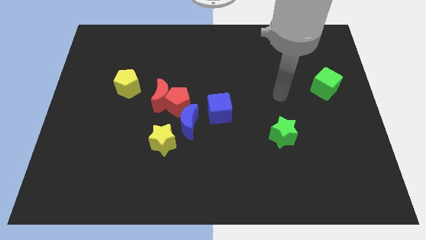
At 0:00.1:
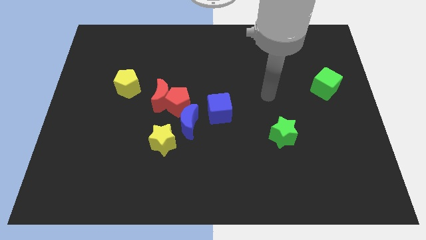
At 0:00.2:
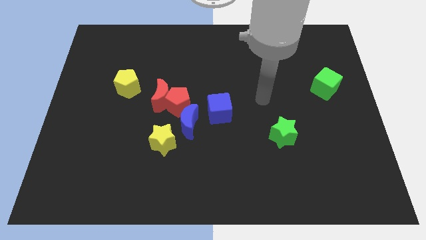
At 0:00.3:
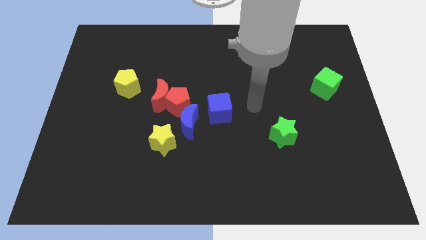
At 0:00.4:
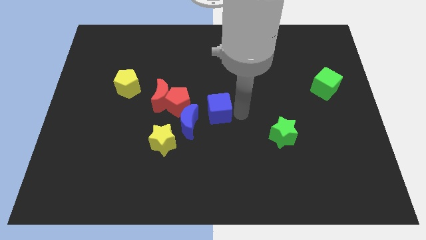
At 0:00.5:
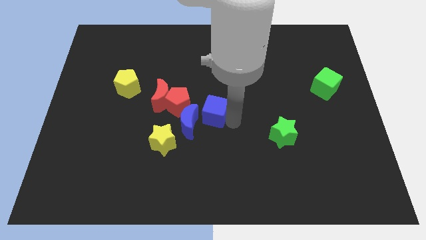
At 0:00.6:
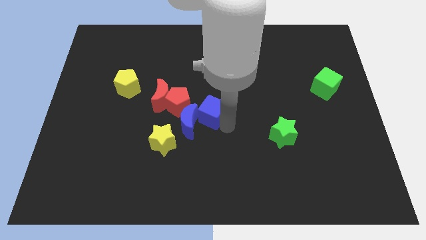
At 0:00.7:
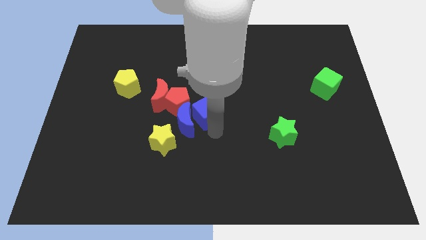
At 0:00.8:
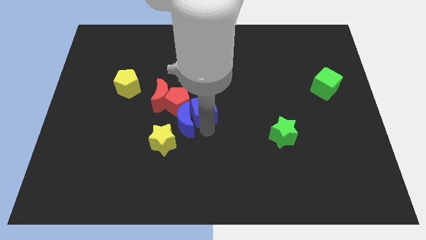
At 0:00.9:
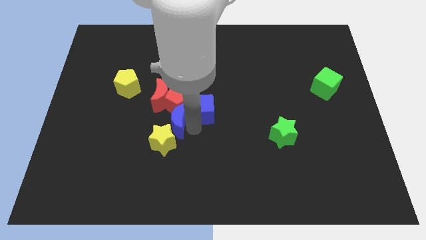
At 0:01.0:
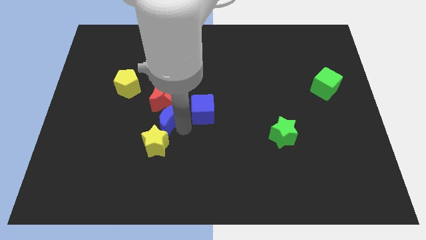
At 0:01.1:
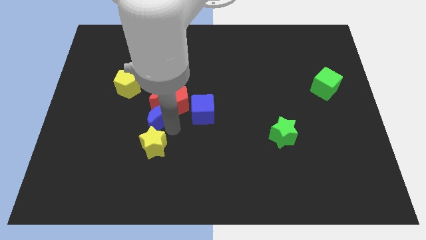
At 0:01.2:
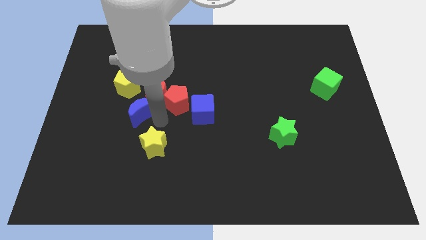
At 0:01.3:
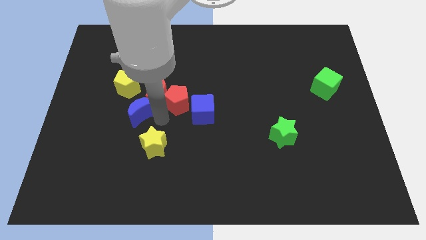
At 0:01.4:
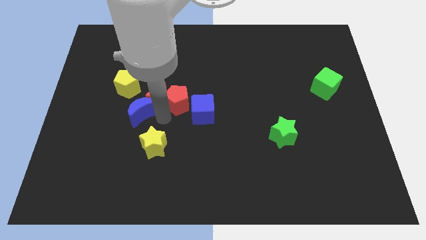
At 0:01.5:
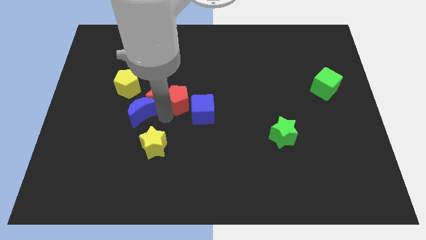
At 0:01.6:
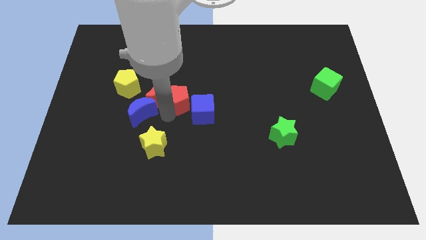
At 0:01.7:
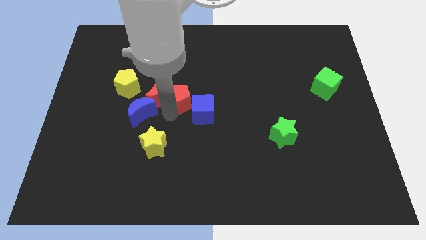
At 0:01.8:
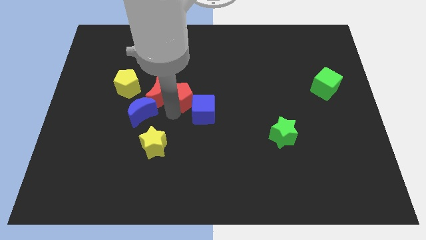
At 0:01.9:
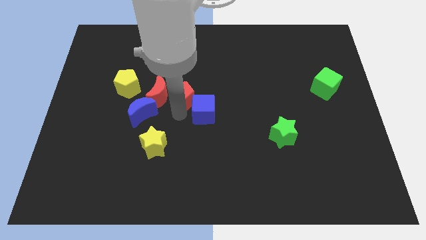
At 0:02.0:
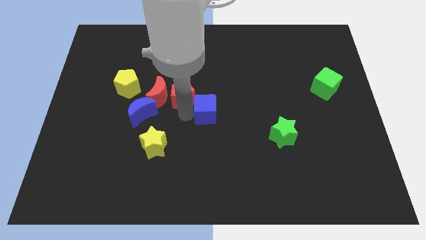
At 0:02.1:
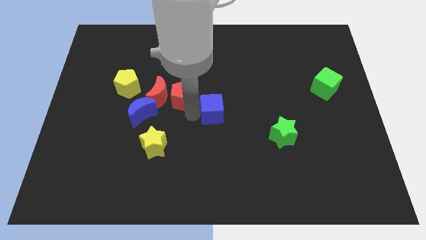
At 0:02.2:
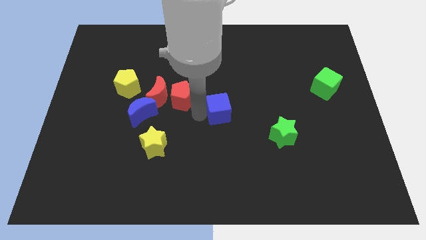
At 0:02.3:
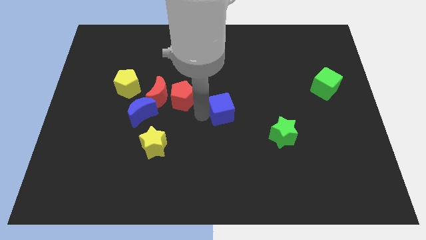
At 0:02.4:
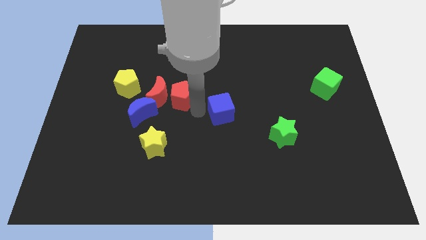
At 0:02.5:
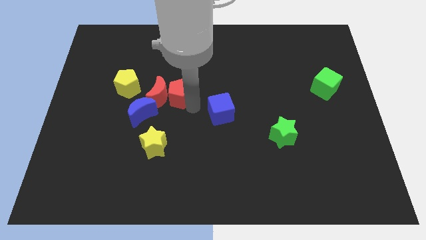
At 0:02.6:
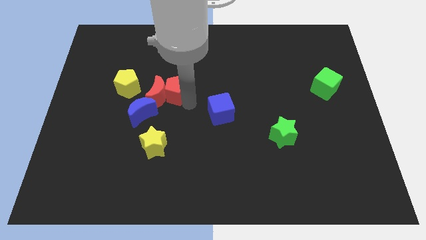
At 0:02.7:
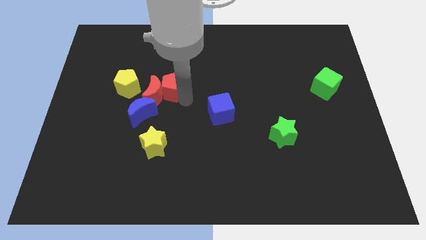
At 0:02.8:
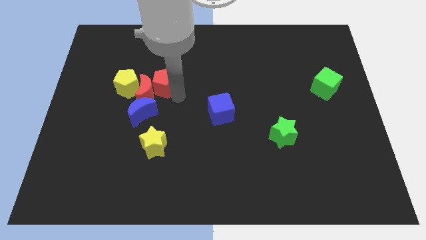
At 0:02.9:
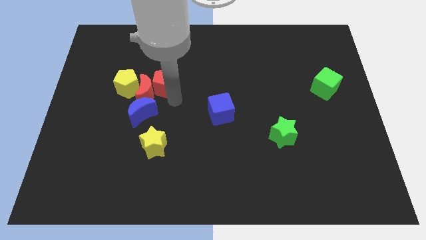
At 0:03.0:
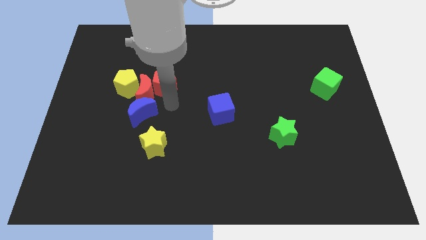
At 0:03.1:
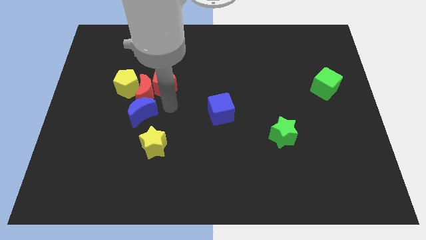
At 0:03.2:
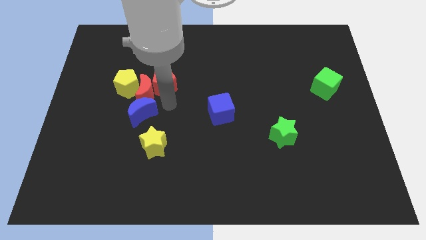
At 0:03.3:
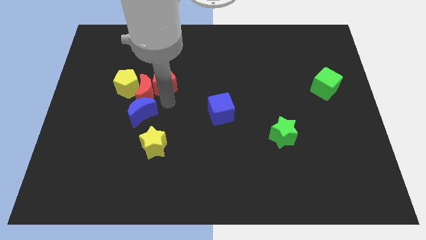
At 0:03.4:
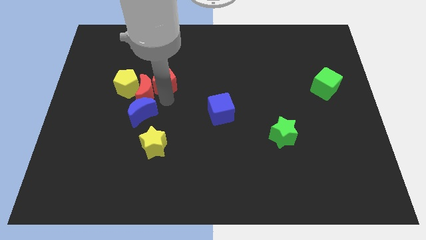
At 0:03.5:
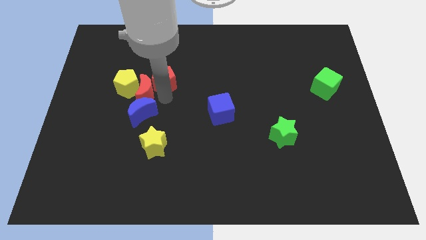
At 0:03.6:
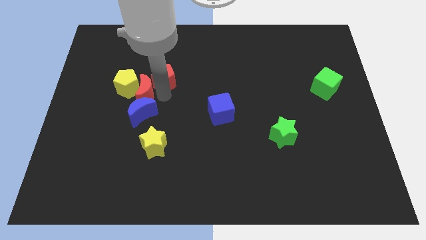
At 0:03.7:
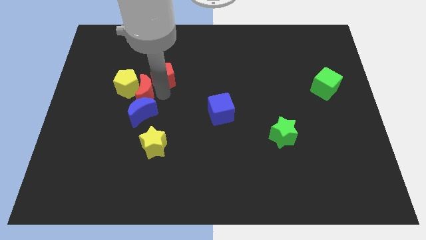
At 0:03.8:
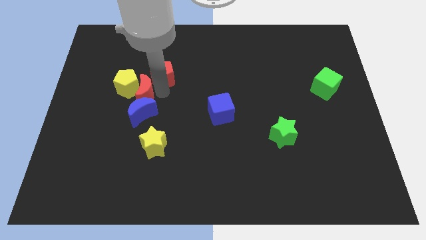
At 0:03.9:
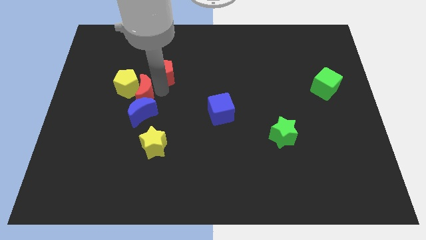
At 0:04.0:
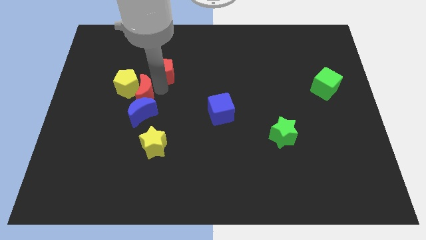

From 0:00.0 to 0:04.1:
move the red pentagon away from the red moon, blue moon, and blue cube

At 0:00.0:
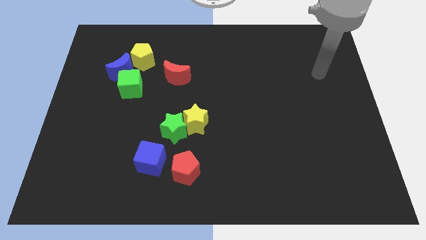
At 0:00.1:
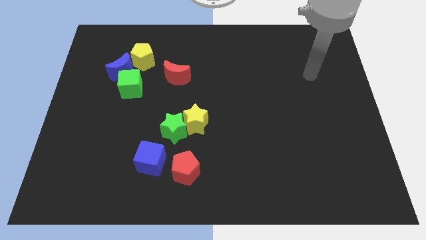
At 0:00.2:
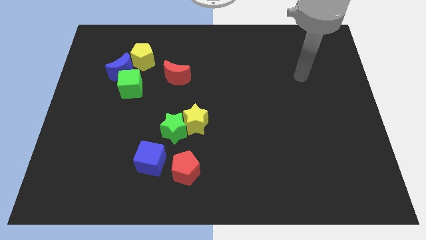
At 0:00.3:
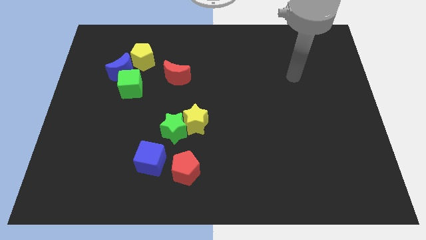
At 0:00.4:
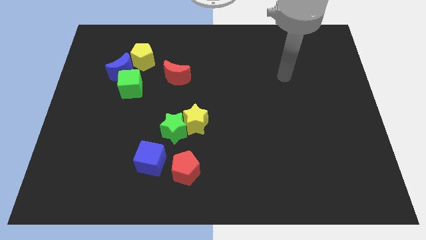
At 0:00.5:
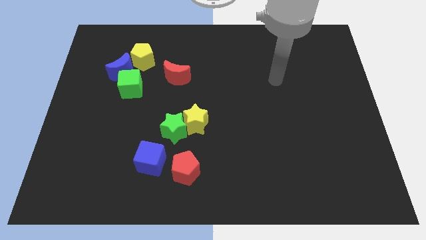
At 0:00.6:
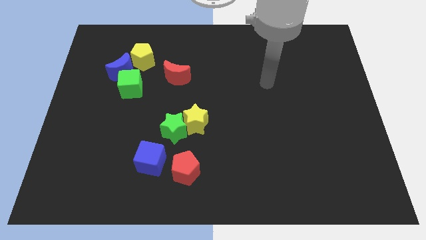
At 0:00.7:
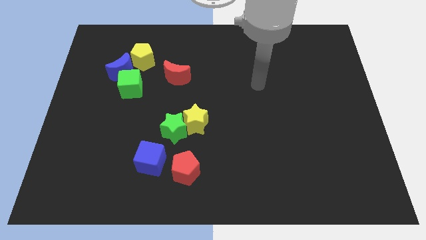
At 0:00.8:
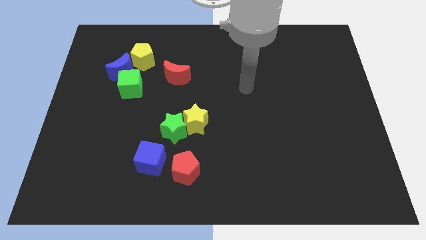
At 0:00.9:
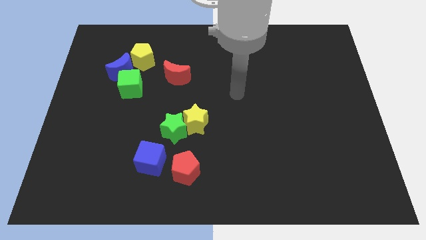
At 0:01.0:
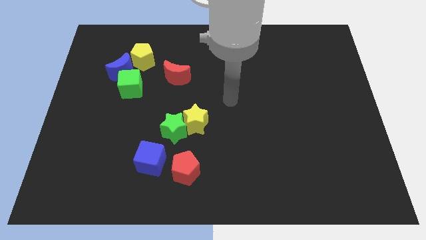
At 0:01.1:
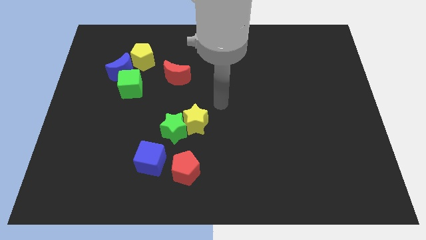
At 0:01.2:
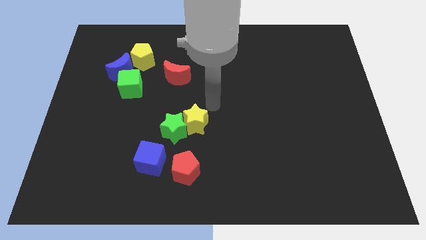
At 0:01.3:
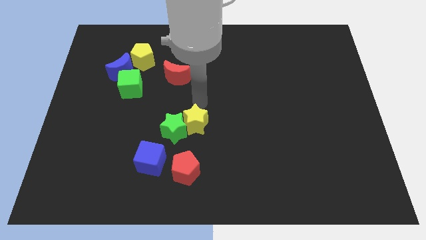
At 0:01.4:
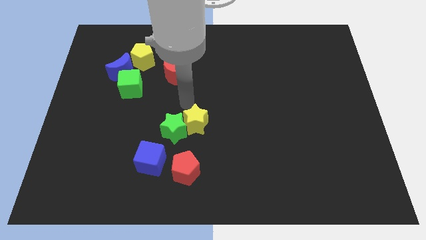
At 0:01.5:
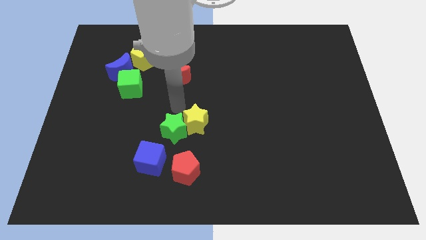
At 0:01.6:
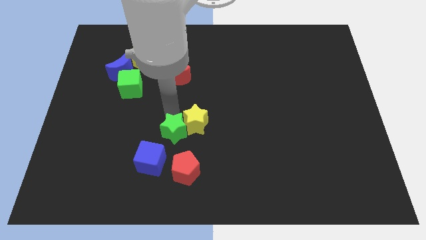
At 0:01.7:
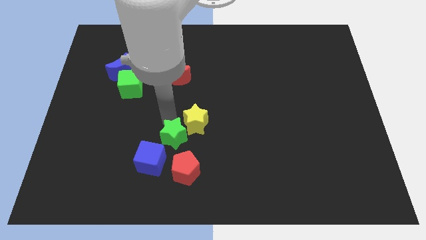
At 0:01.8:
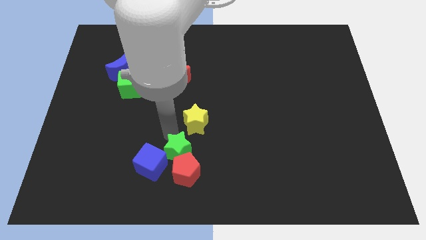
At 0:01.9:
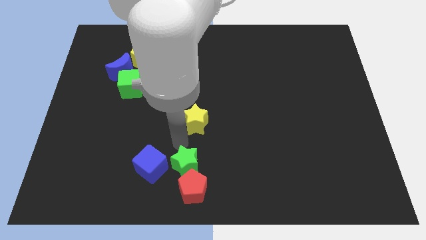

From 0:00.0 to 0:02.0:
move the yellow star away from the green star

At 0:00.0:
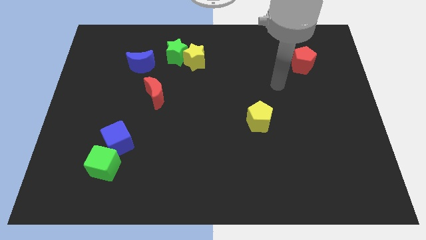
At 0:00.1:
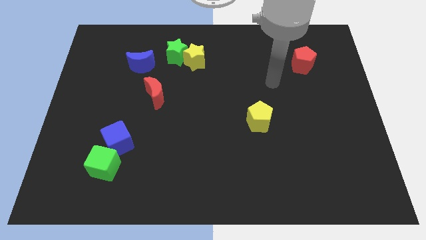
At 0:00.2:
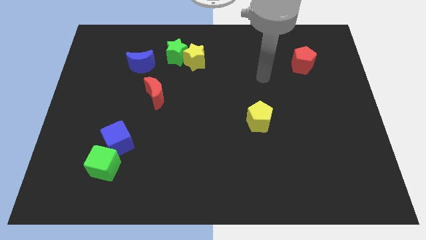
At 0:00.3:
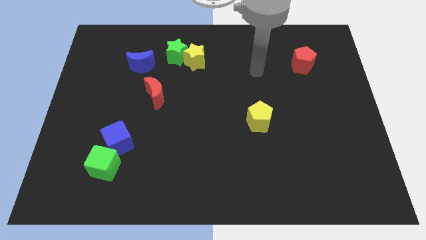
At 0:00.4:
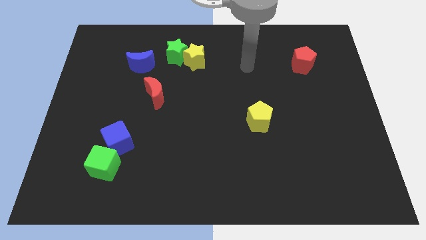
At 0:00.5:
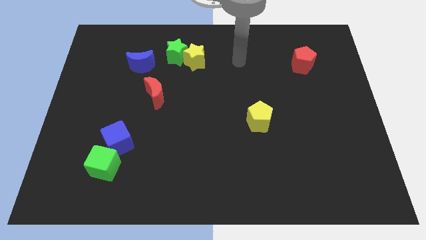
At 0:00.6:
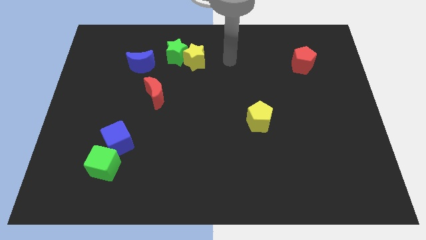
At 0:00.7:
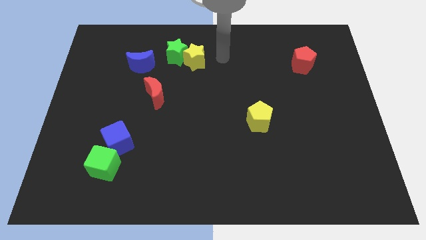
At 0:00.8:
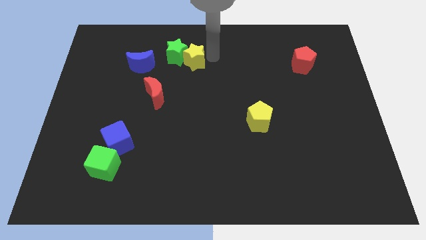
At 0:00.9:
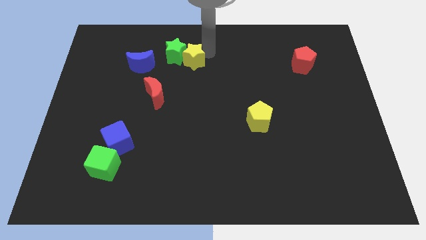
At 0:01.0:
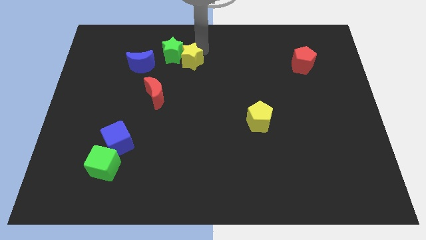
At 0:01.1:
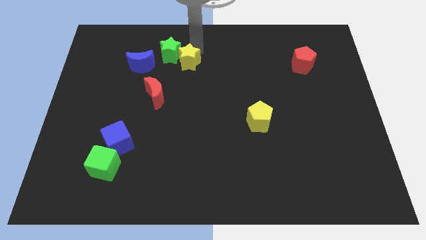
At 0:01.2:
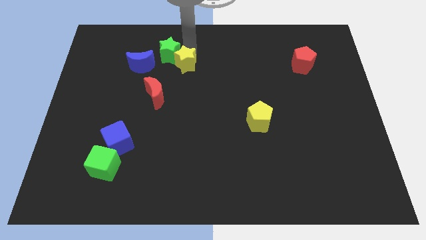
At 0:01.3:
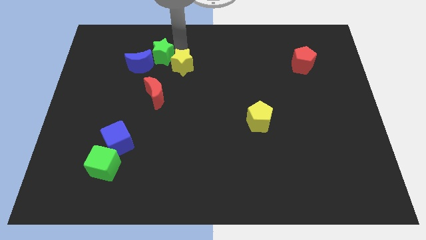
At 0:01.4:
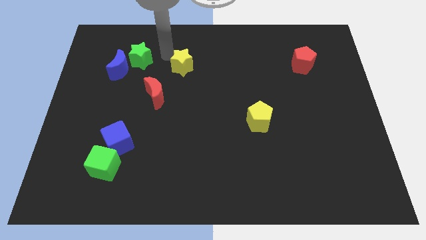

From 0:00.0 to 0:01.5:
separate the yellow star from the green star

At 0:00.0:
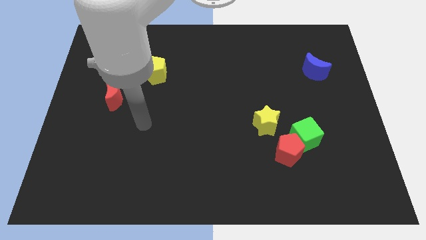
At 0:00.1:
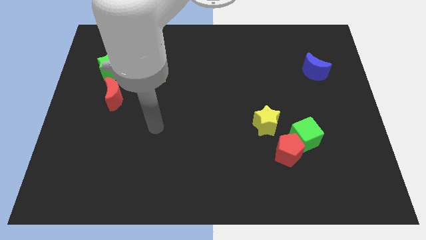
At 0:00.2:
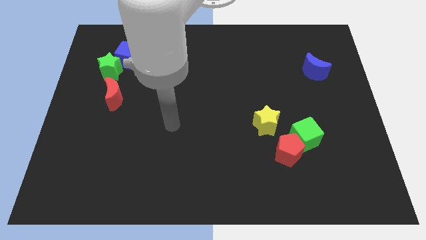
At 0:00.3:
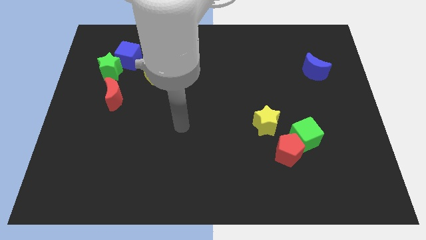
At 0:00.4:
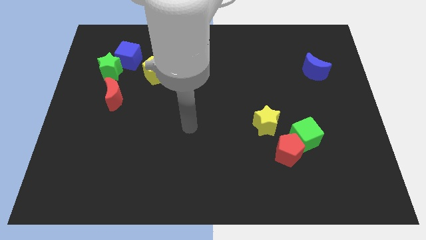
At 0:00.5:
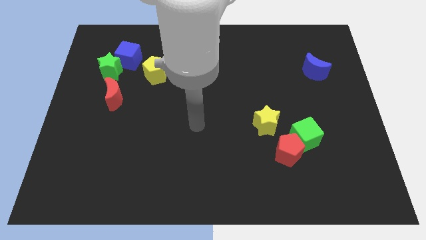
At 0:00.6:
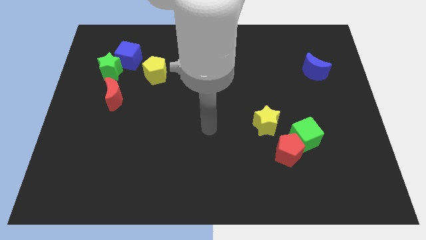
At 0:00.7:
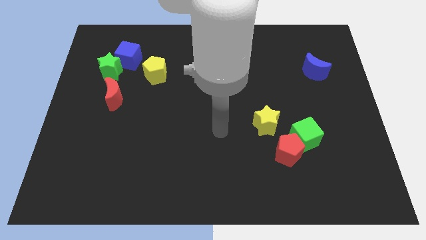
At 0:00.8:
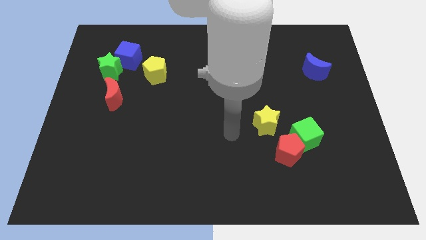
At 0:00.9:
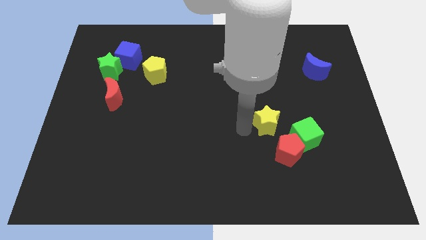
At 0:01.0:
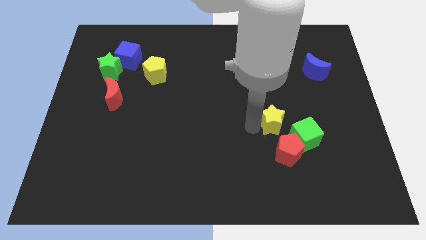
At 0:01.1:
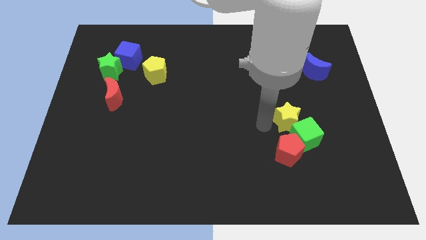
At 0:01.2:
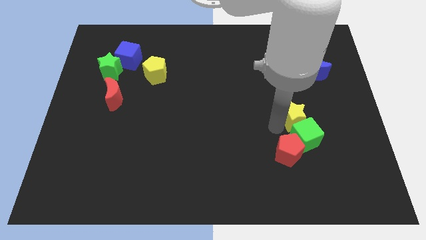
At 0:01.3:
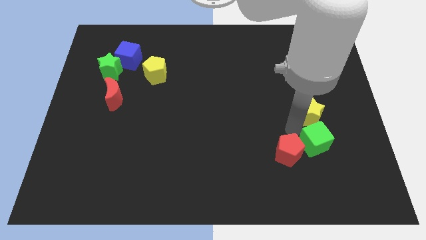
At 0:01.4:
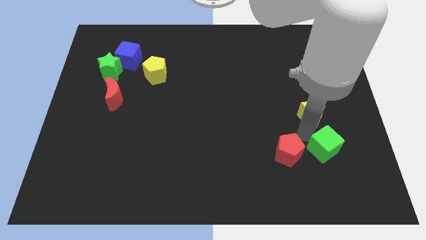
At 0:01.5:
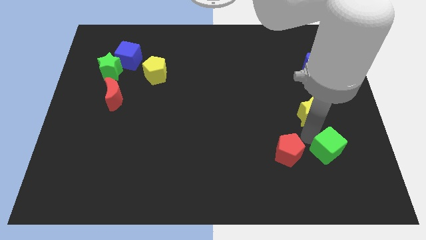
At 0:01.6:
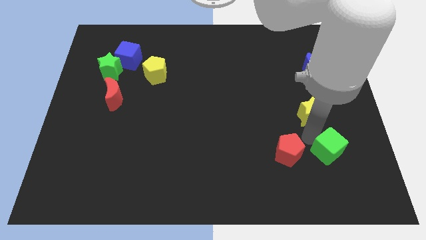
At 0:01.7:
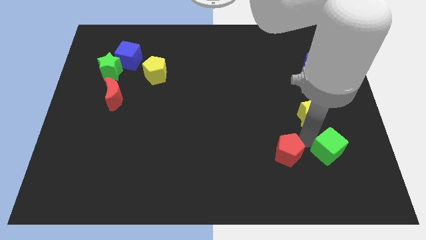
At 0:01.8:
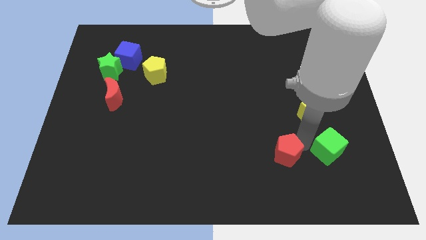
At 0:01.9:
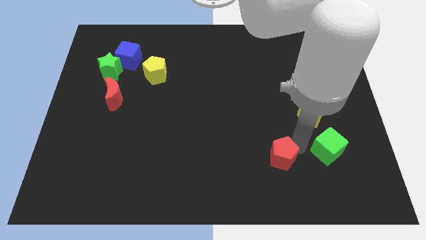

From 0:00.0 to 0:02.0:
move the red pentagon away from the green cube and yellow star
